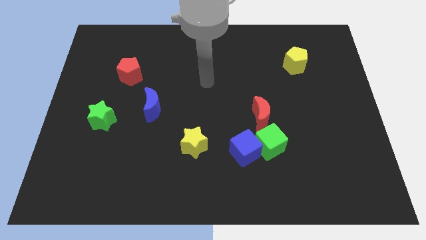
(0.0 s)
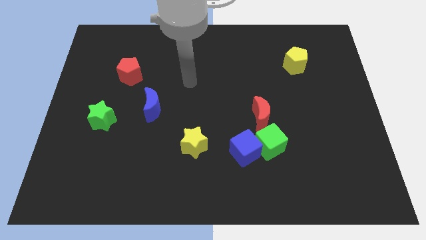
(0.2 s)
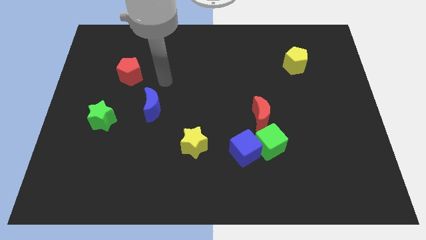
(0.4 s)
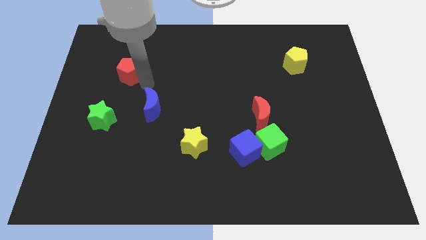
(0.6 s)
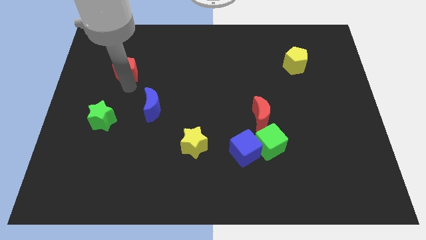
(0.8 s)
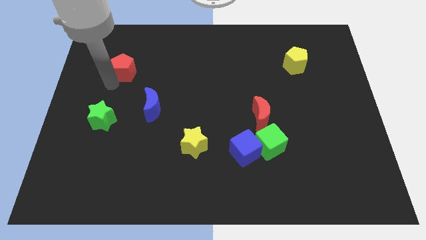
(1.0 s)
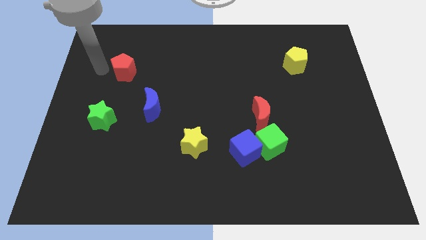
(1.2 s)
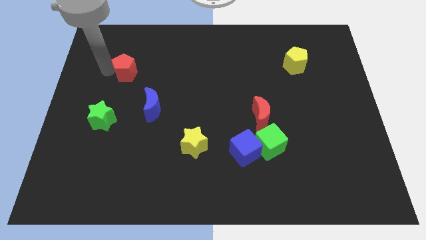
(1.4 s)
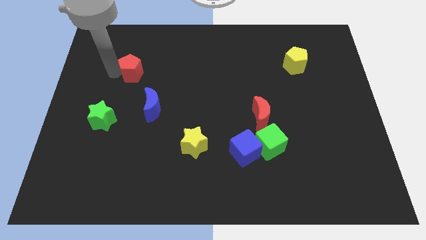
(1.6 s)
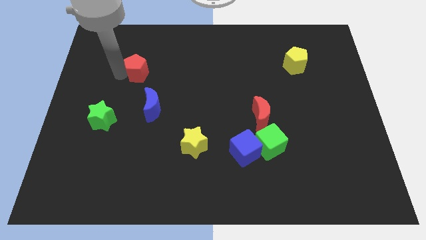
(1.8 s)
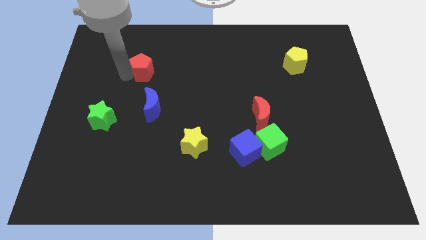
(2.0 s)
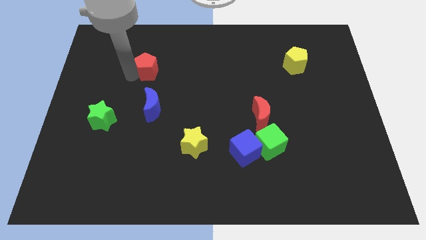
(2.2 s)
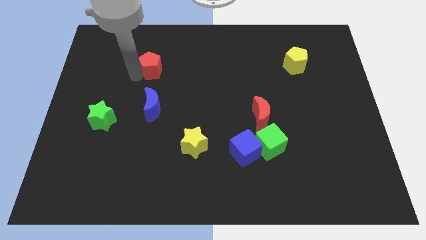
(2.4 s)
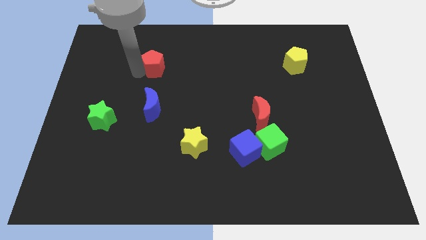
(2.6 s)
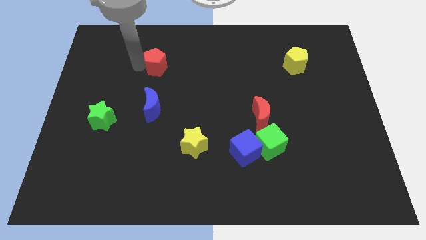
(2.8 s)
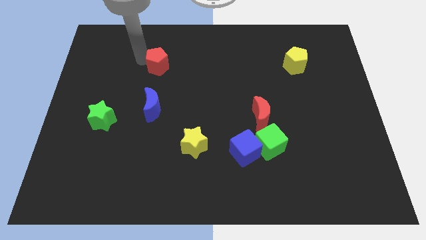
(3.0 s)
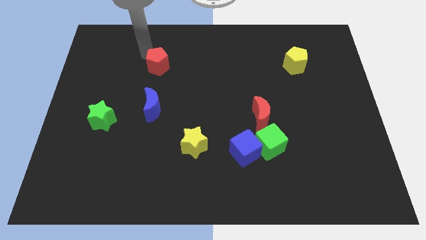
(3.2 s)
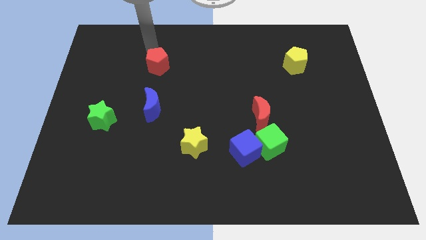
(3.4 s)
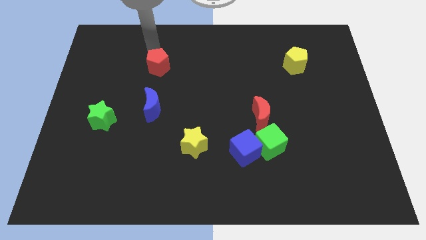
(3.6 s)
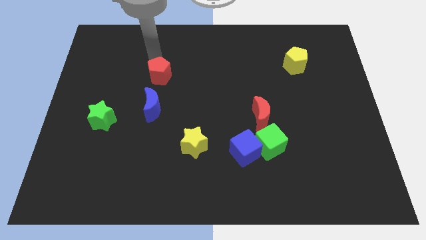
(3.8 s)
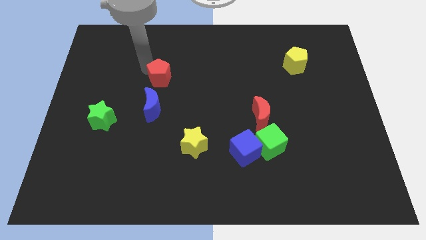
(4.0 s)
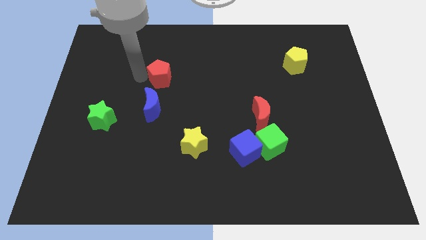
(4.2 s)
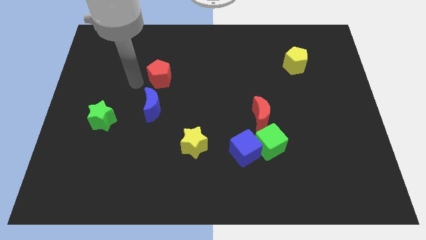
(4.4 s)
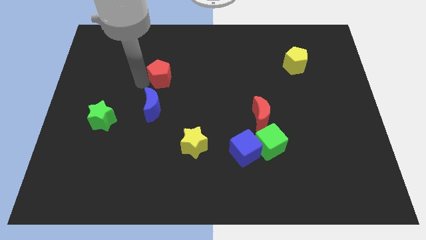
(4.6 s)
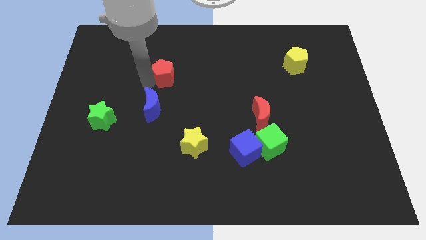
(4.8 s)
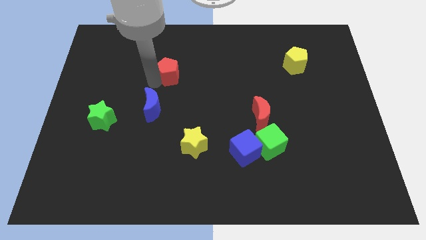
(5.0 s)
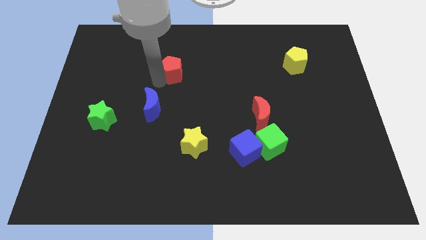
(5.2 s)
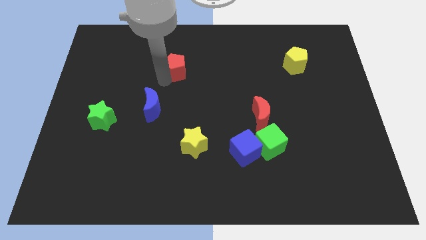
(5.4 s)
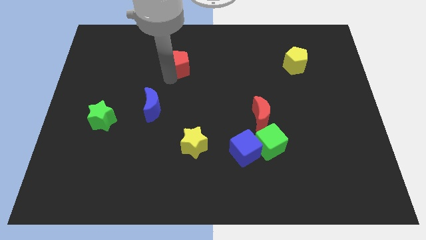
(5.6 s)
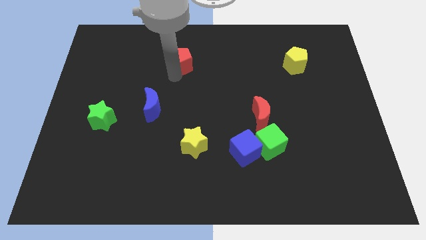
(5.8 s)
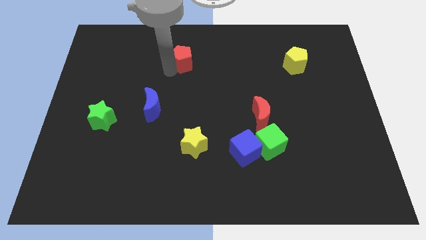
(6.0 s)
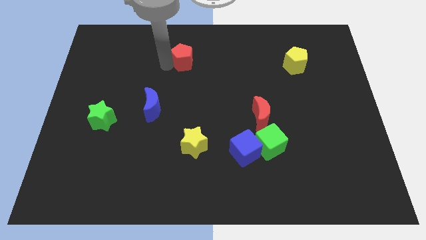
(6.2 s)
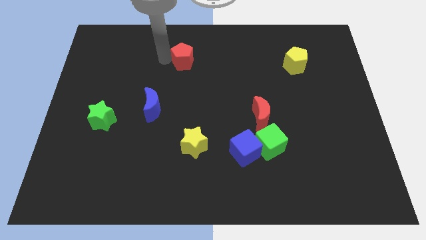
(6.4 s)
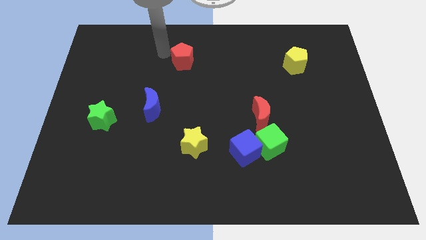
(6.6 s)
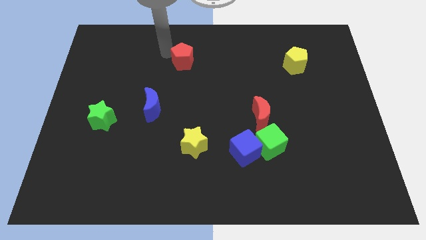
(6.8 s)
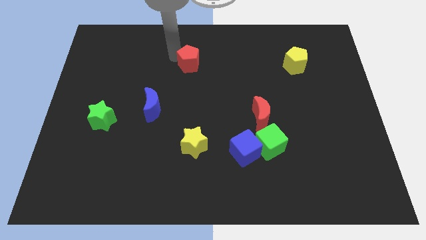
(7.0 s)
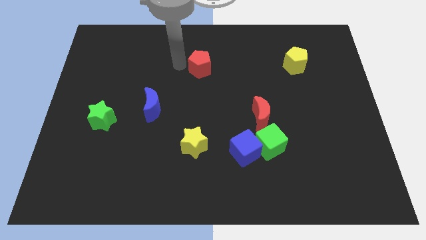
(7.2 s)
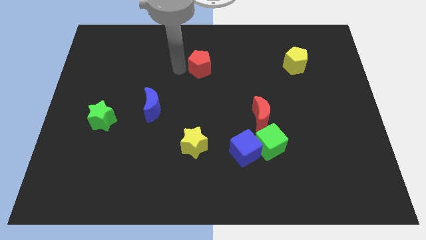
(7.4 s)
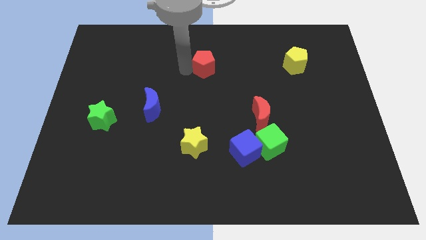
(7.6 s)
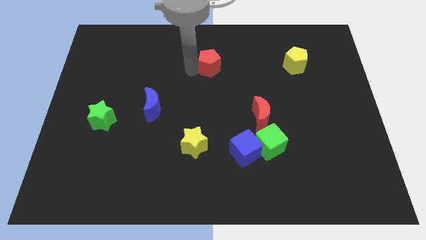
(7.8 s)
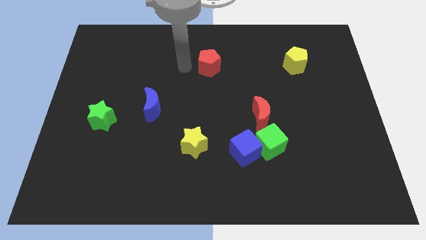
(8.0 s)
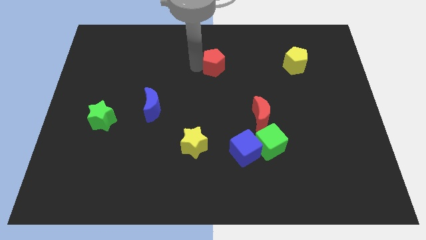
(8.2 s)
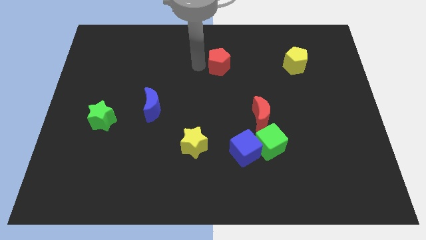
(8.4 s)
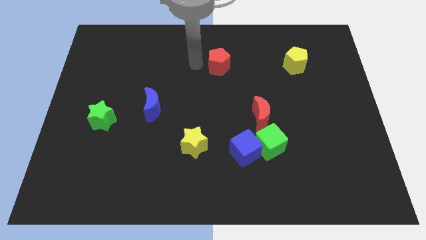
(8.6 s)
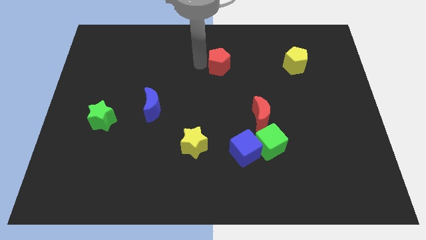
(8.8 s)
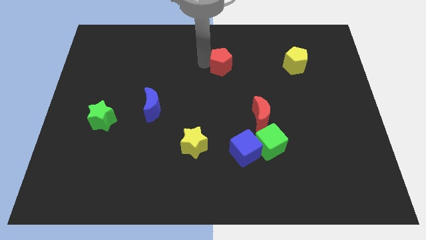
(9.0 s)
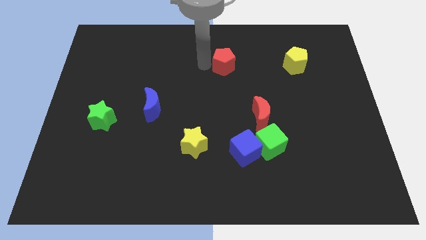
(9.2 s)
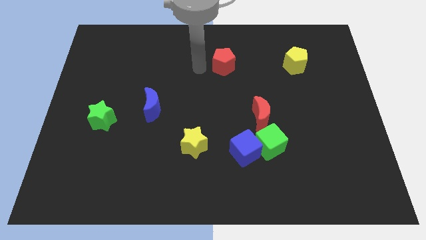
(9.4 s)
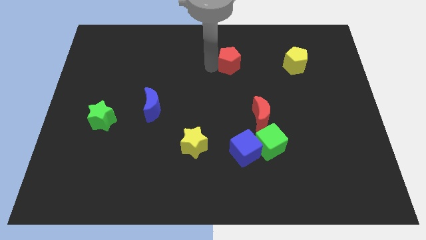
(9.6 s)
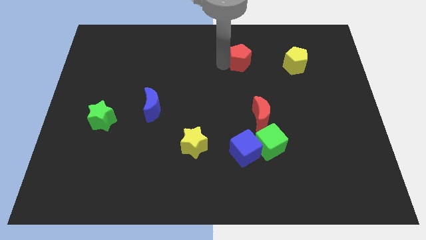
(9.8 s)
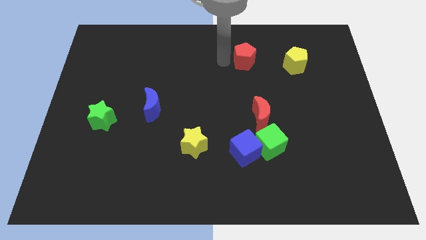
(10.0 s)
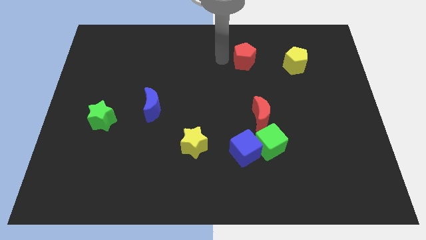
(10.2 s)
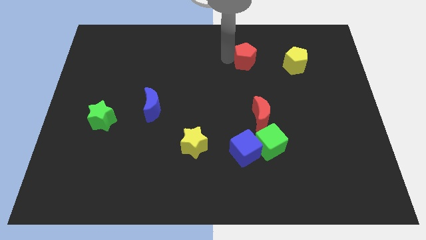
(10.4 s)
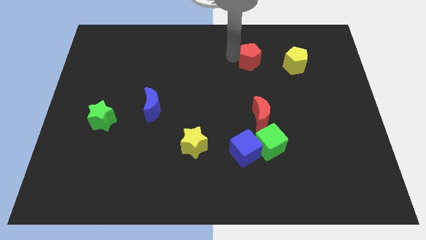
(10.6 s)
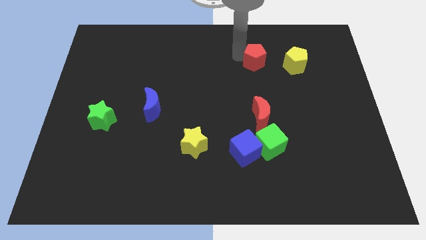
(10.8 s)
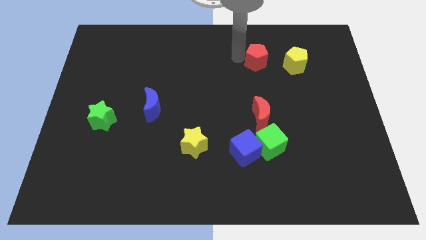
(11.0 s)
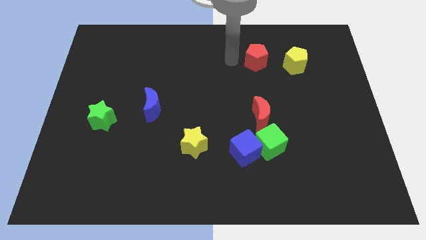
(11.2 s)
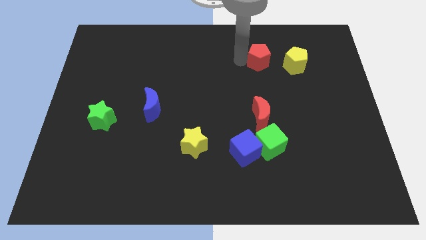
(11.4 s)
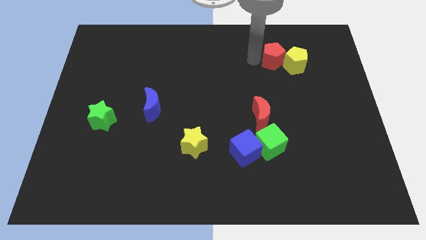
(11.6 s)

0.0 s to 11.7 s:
slide the red pentagon towards the yellow pentagon

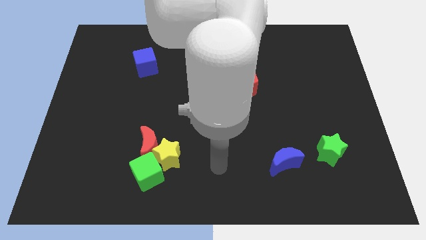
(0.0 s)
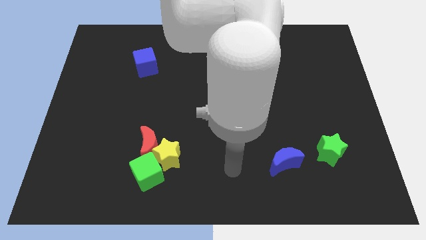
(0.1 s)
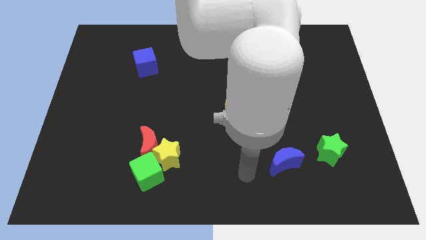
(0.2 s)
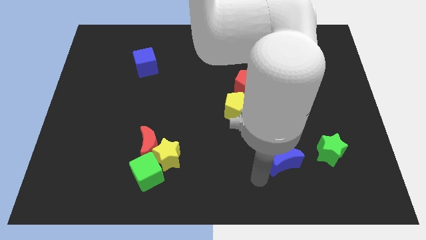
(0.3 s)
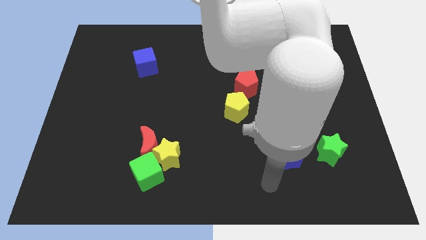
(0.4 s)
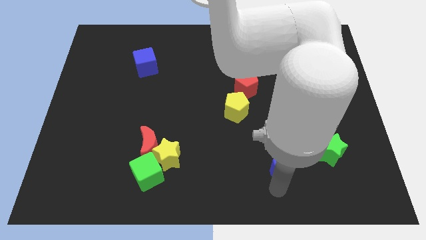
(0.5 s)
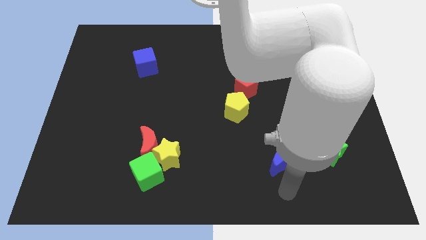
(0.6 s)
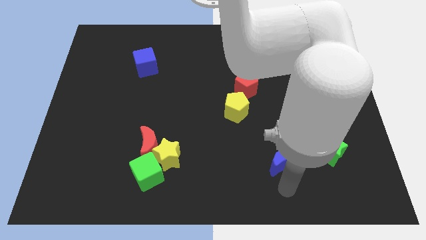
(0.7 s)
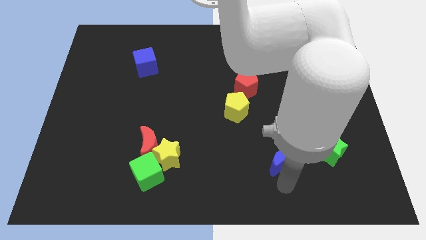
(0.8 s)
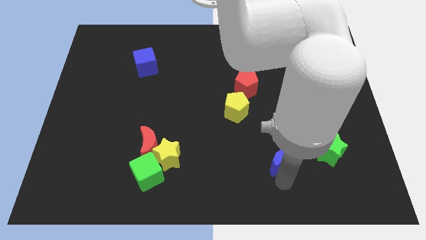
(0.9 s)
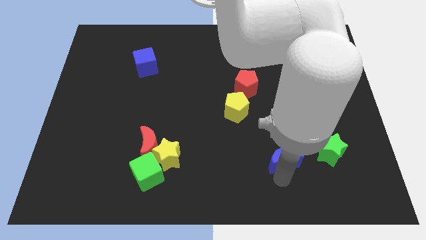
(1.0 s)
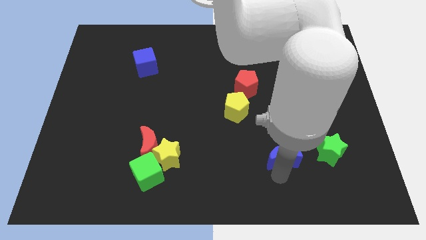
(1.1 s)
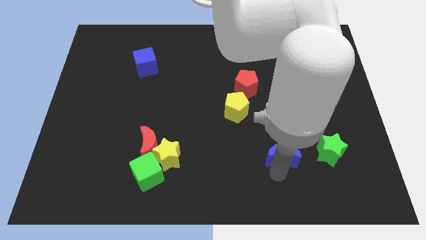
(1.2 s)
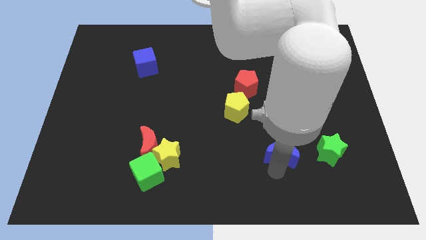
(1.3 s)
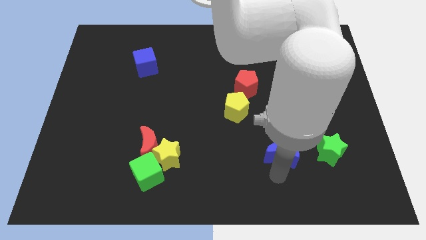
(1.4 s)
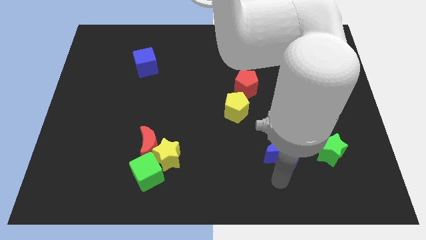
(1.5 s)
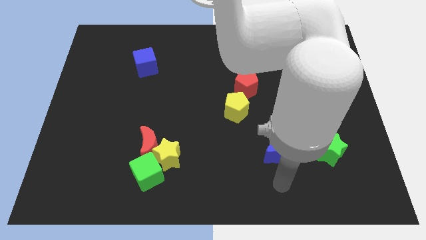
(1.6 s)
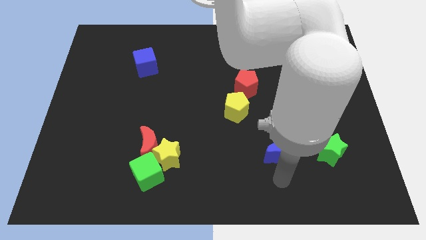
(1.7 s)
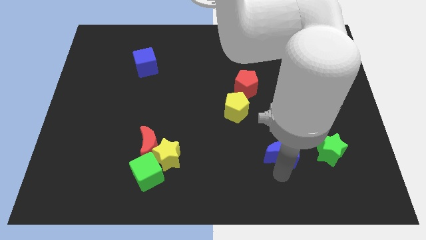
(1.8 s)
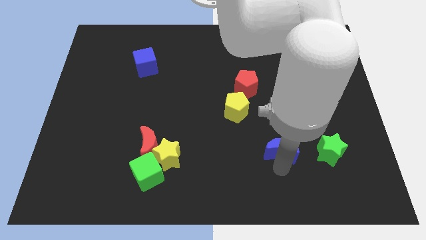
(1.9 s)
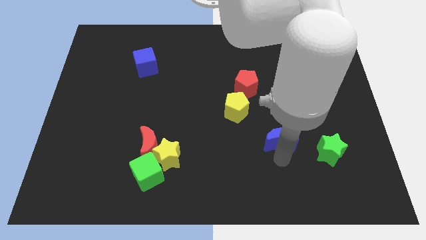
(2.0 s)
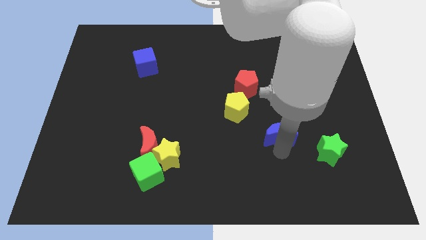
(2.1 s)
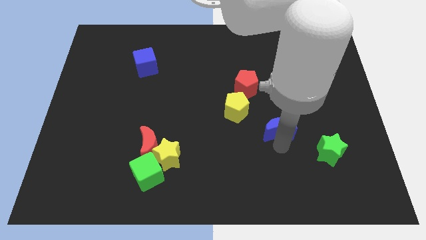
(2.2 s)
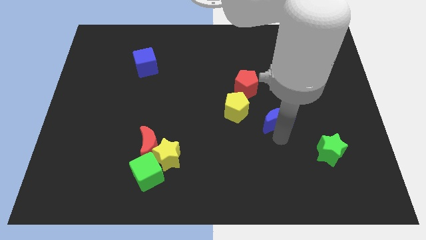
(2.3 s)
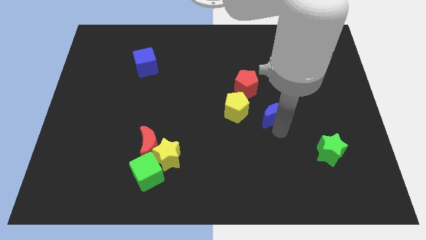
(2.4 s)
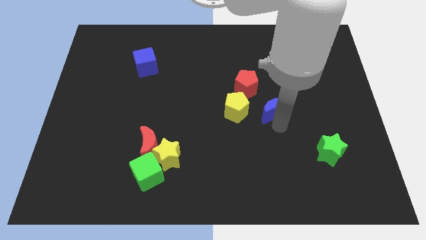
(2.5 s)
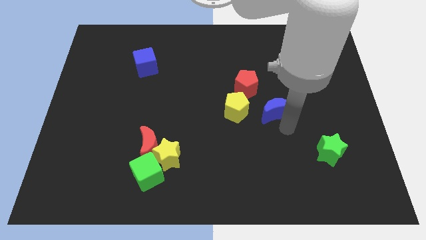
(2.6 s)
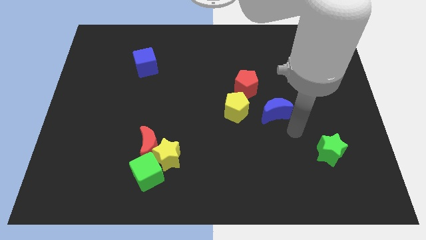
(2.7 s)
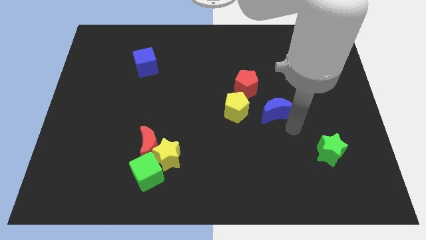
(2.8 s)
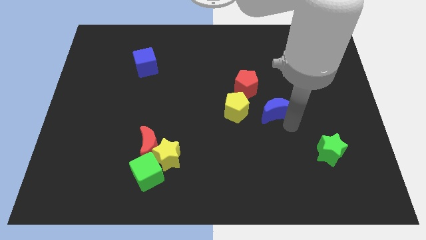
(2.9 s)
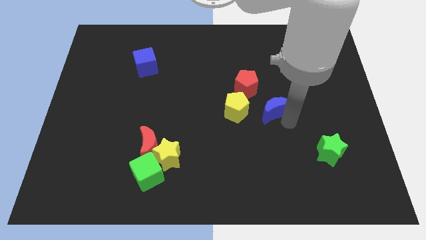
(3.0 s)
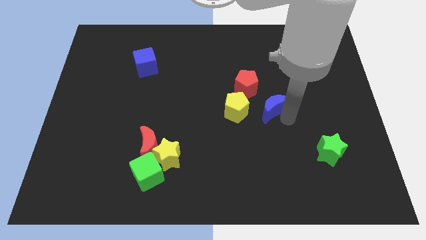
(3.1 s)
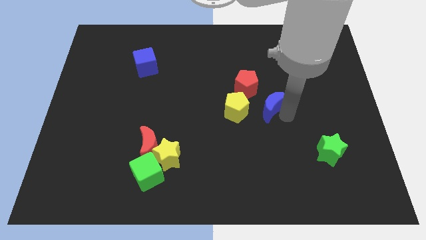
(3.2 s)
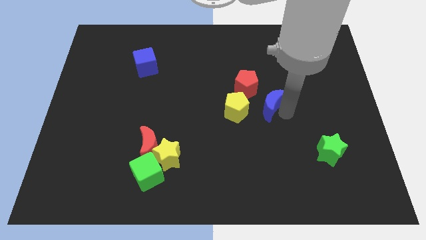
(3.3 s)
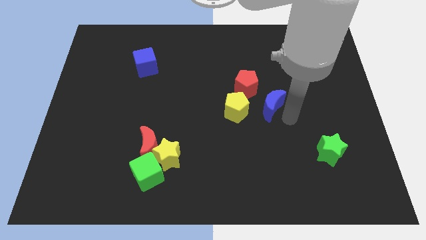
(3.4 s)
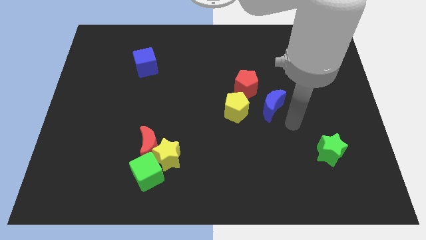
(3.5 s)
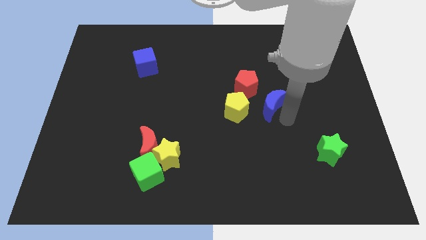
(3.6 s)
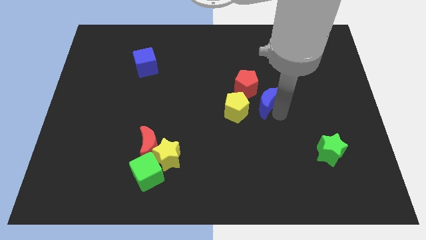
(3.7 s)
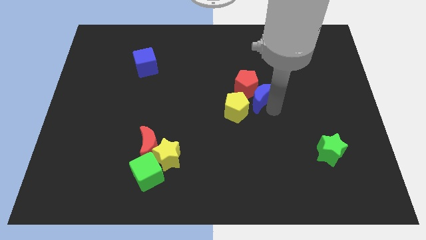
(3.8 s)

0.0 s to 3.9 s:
push the blue moon next to the red pentagon
